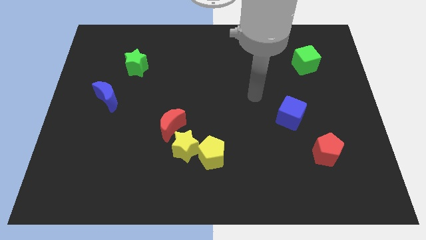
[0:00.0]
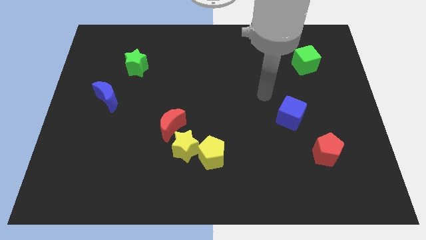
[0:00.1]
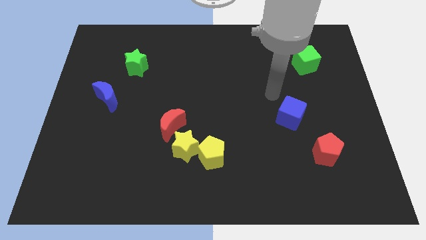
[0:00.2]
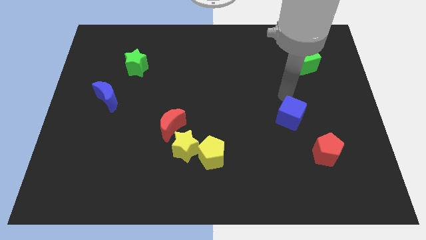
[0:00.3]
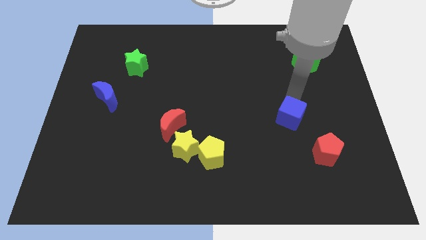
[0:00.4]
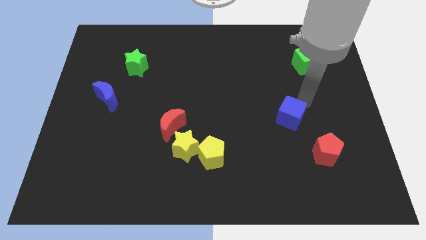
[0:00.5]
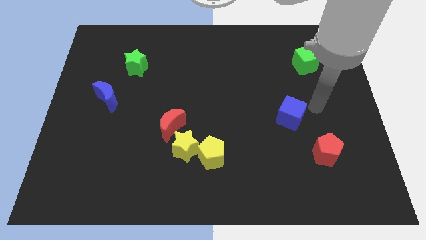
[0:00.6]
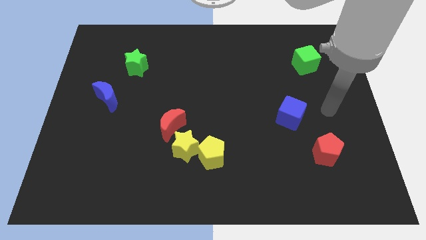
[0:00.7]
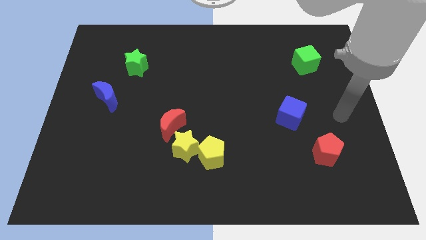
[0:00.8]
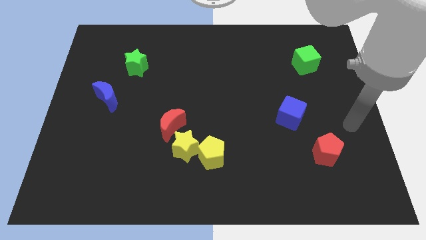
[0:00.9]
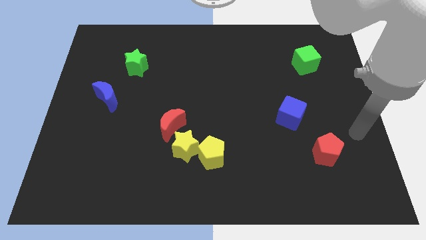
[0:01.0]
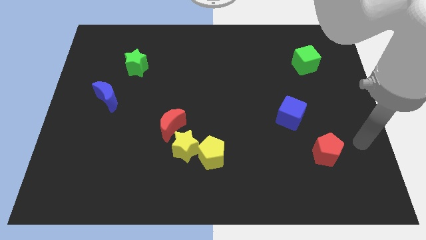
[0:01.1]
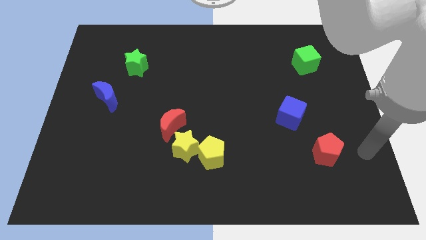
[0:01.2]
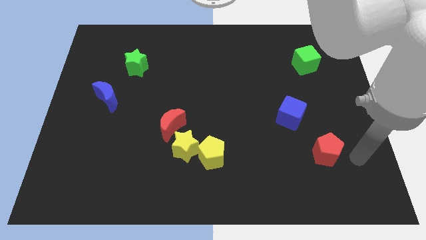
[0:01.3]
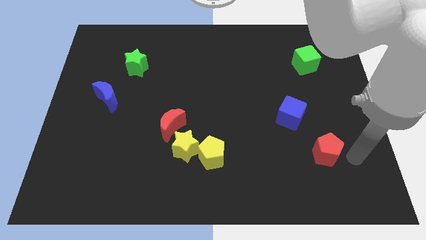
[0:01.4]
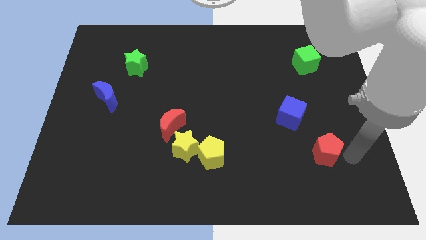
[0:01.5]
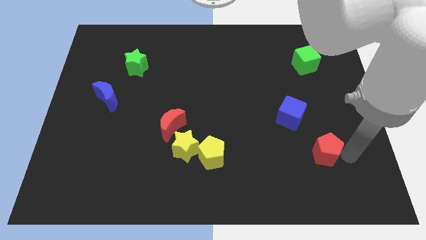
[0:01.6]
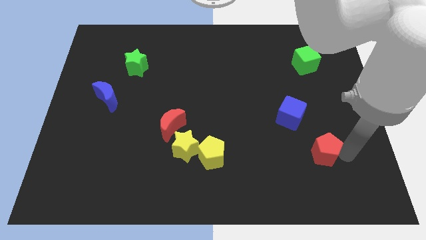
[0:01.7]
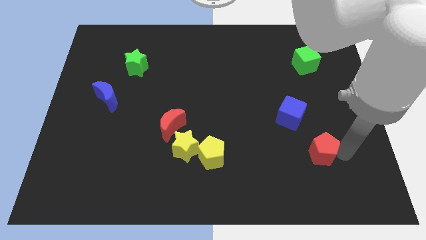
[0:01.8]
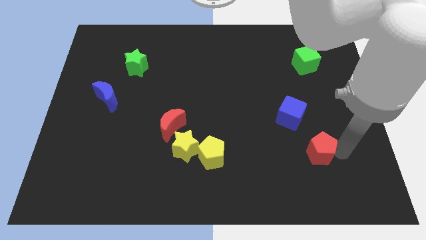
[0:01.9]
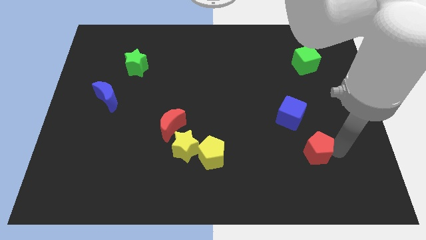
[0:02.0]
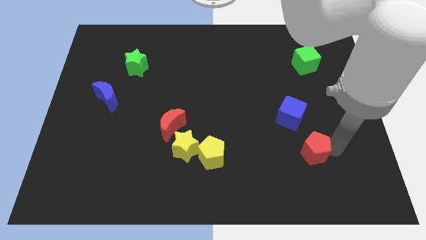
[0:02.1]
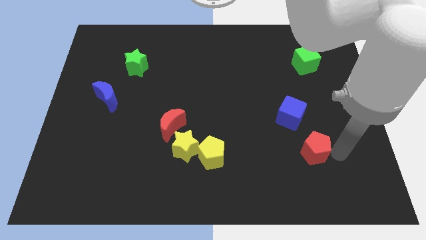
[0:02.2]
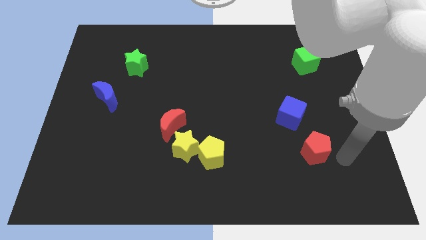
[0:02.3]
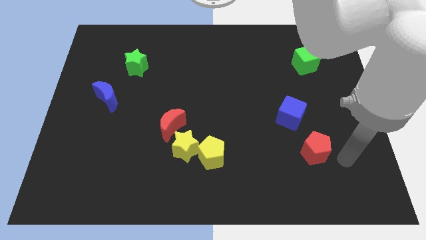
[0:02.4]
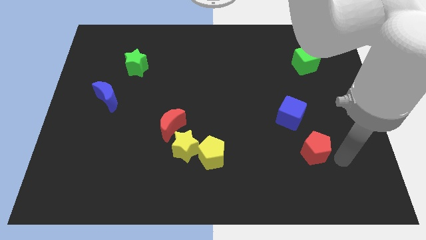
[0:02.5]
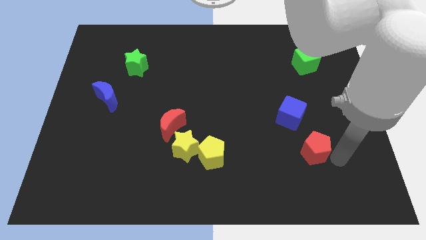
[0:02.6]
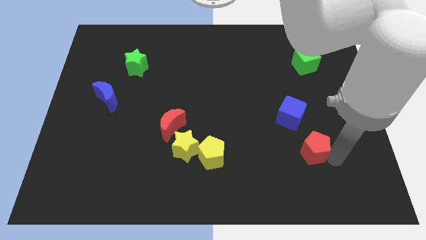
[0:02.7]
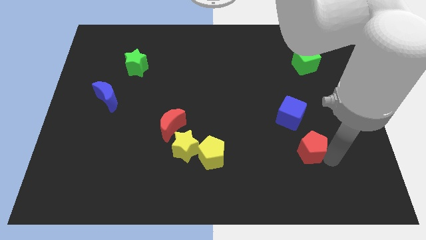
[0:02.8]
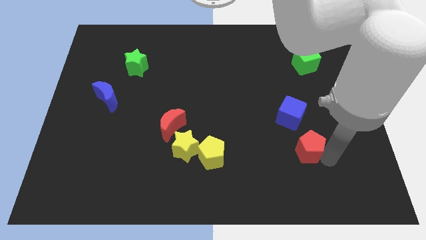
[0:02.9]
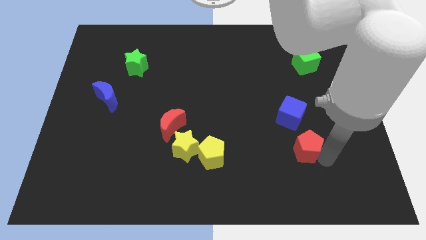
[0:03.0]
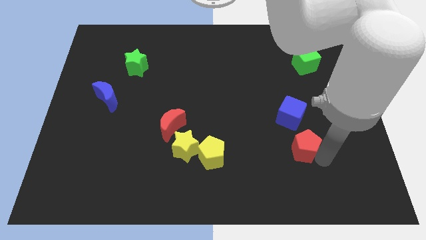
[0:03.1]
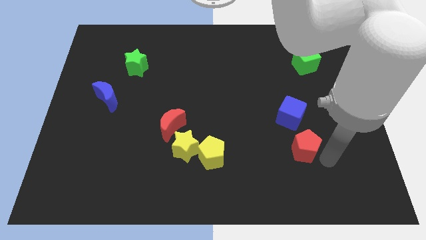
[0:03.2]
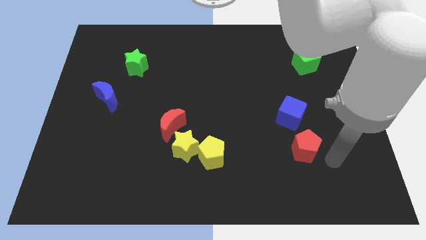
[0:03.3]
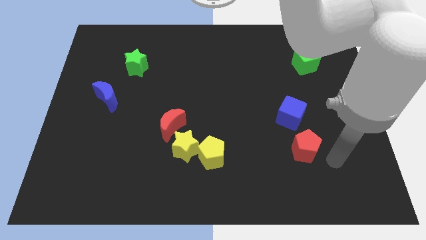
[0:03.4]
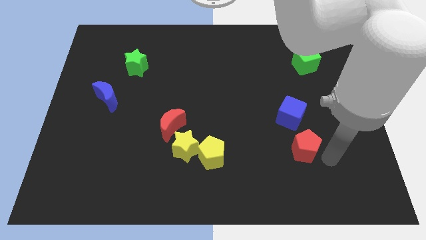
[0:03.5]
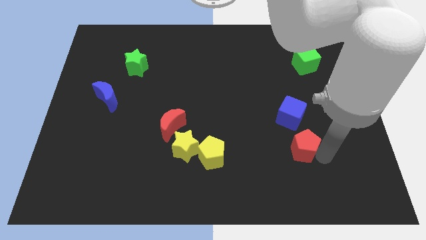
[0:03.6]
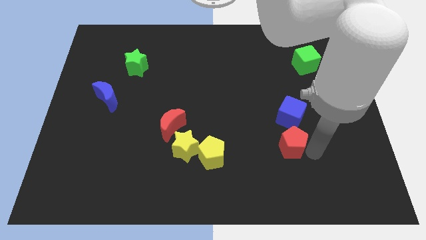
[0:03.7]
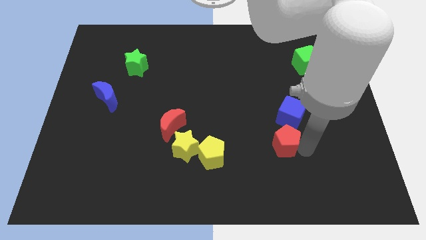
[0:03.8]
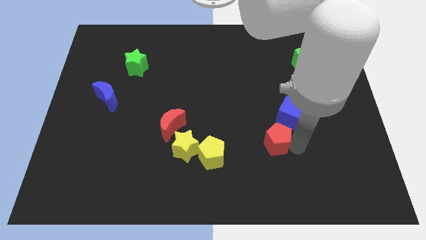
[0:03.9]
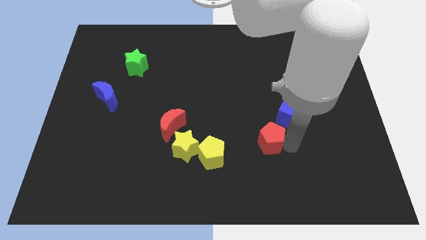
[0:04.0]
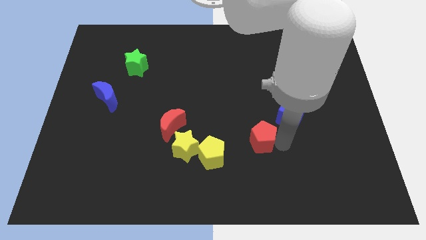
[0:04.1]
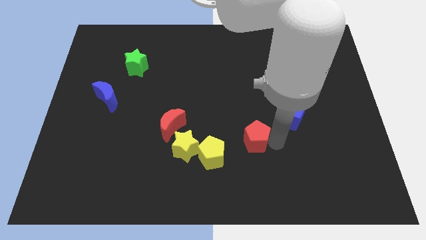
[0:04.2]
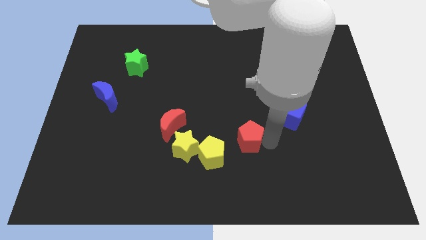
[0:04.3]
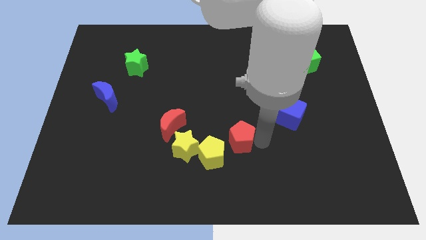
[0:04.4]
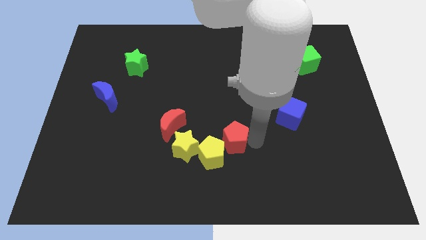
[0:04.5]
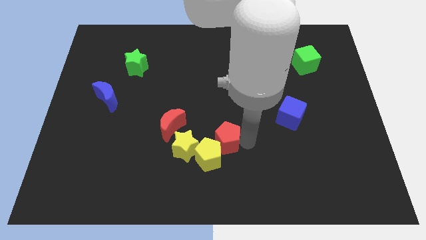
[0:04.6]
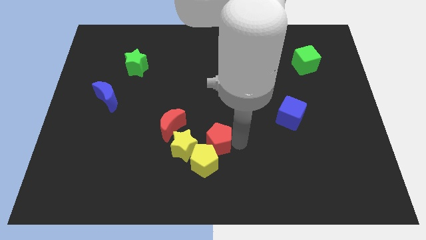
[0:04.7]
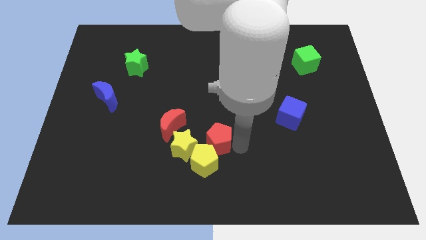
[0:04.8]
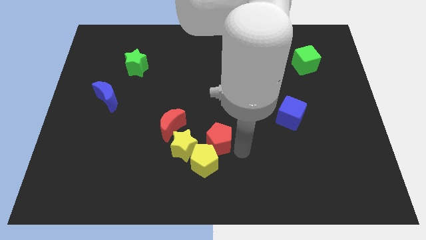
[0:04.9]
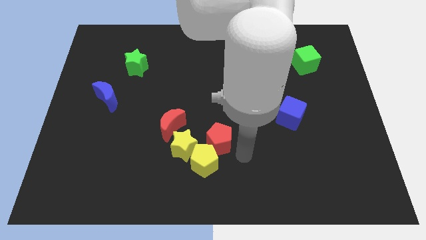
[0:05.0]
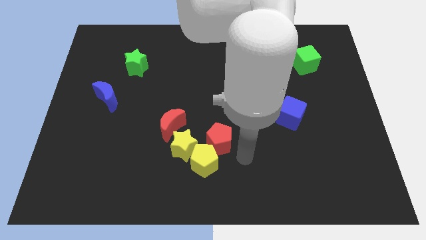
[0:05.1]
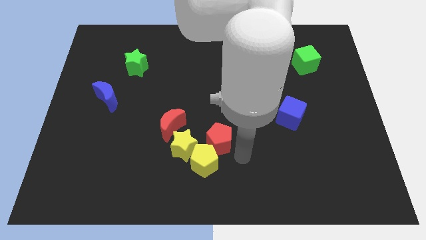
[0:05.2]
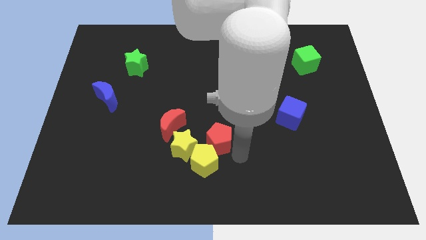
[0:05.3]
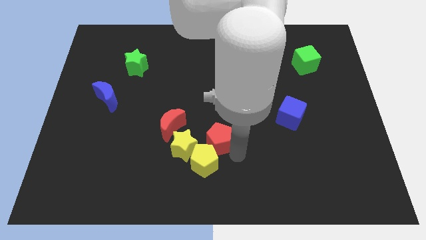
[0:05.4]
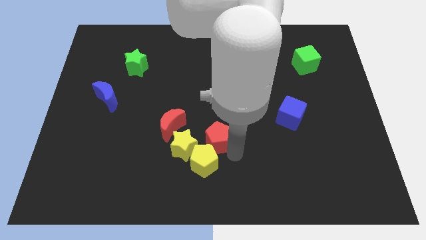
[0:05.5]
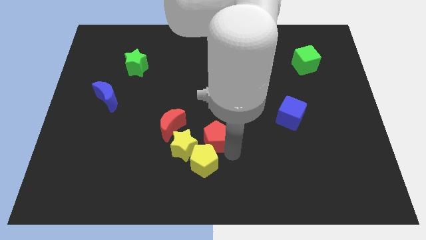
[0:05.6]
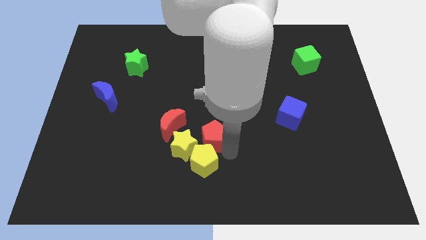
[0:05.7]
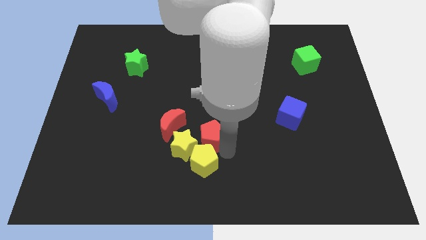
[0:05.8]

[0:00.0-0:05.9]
move the red pentagon towards the yellow star
